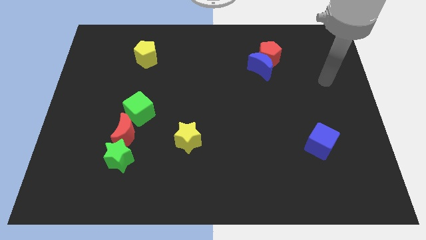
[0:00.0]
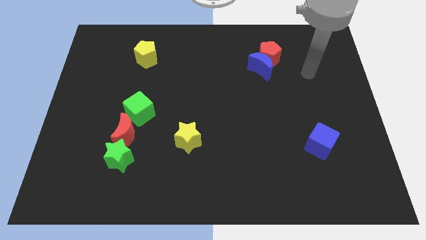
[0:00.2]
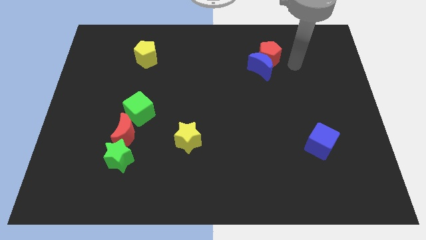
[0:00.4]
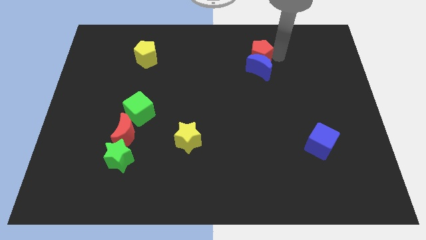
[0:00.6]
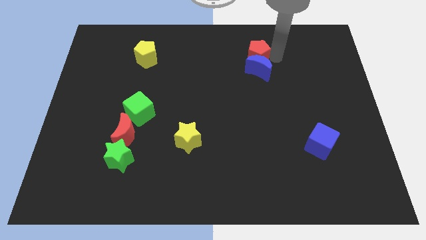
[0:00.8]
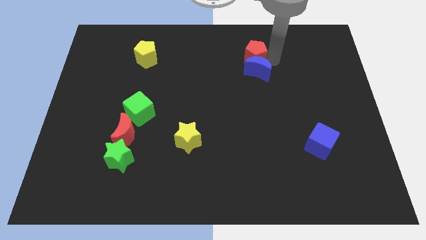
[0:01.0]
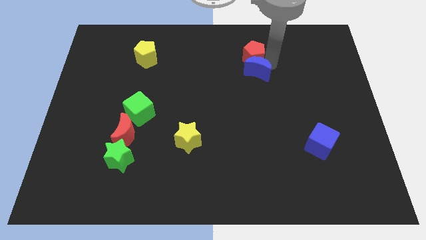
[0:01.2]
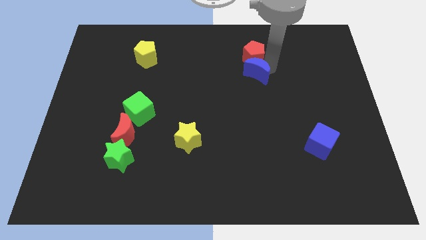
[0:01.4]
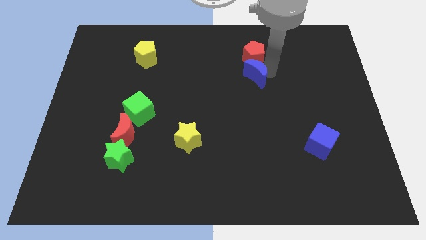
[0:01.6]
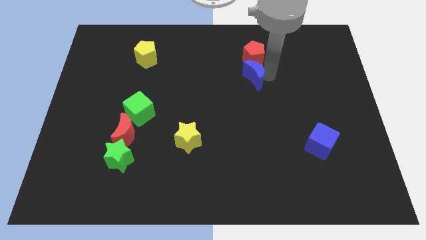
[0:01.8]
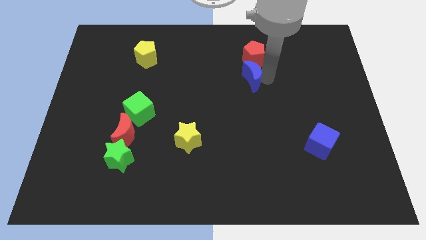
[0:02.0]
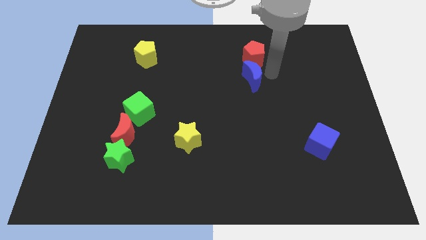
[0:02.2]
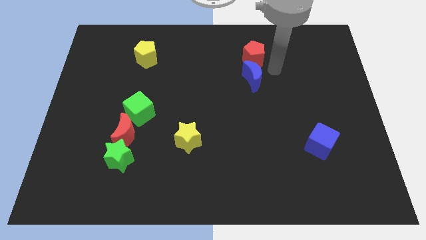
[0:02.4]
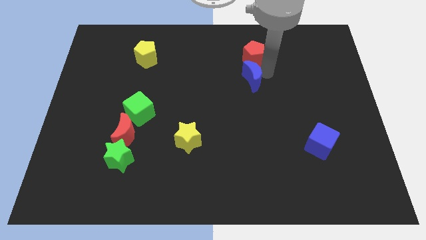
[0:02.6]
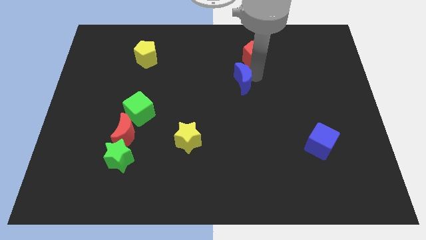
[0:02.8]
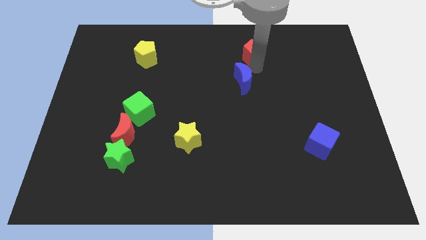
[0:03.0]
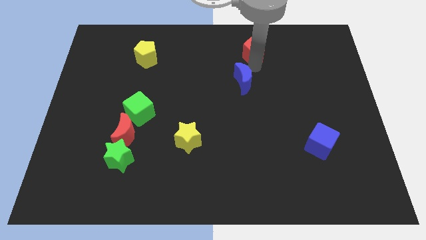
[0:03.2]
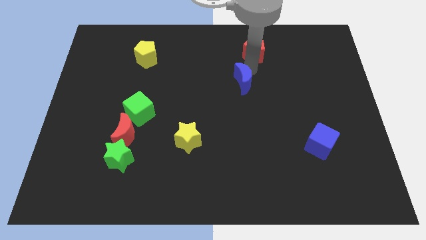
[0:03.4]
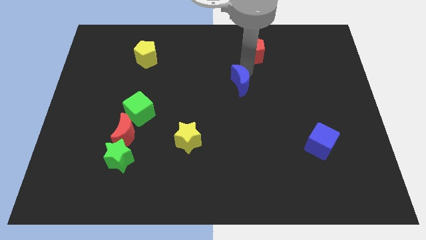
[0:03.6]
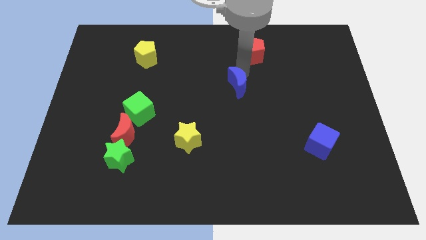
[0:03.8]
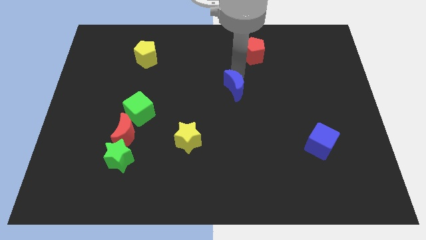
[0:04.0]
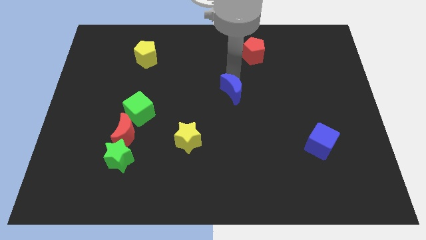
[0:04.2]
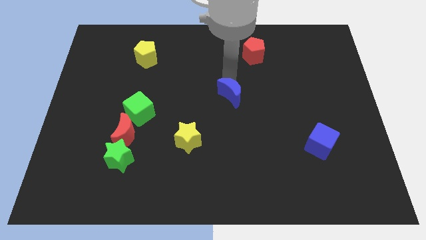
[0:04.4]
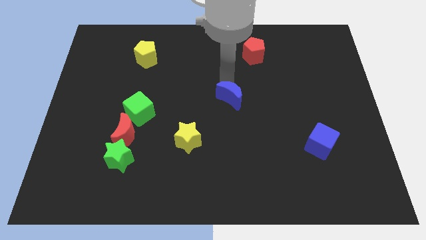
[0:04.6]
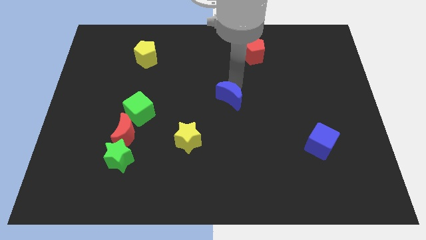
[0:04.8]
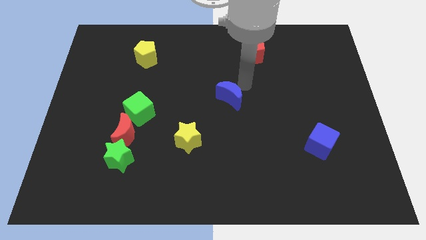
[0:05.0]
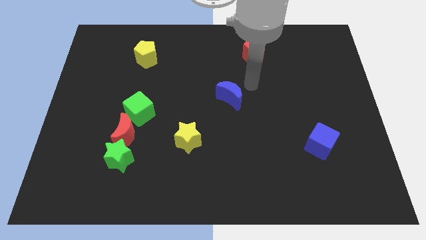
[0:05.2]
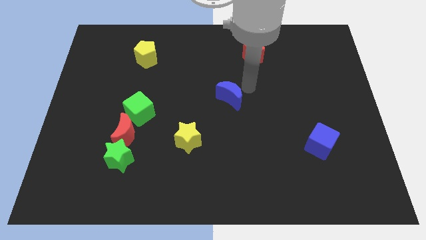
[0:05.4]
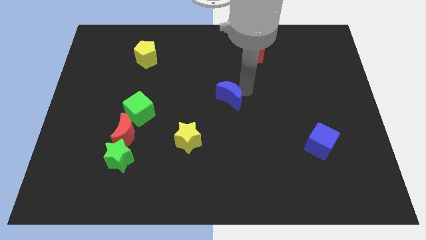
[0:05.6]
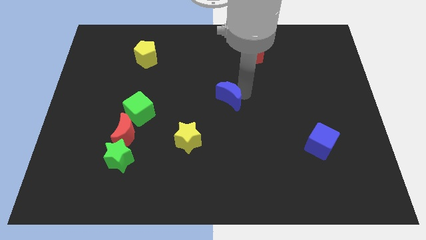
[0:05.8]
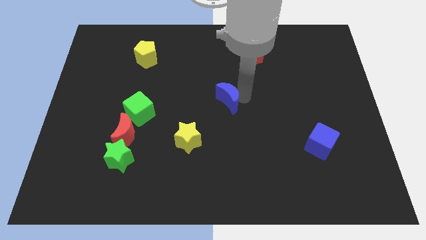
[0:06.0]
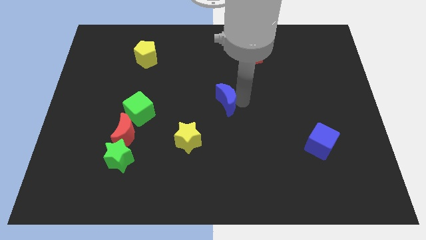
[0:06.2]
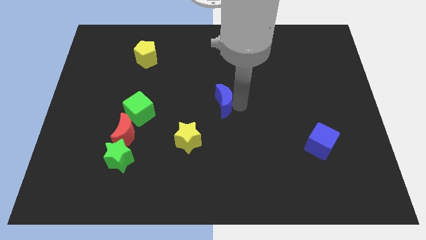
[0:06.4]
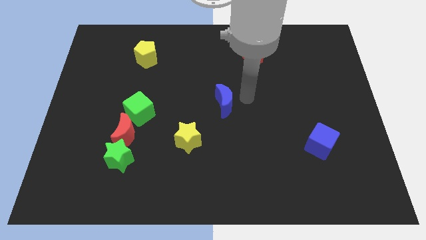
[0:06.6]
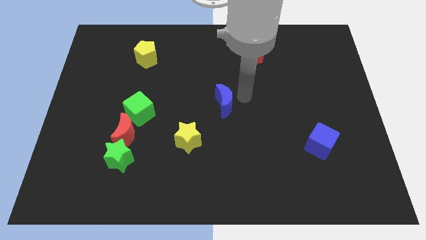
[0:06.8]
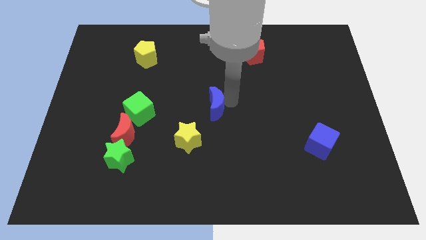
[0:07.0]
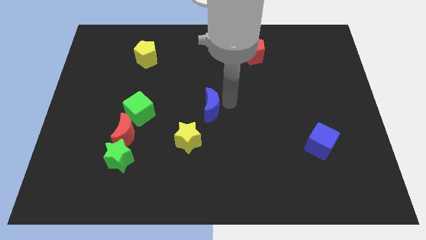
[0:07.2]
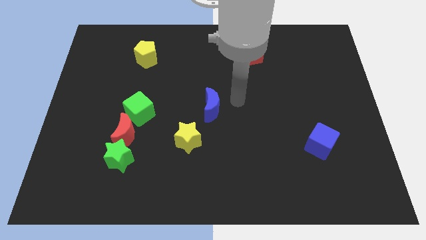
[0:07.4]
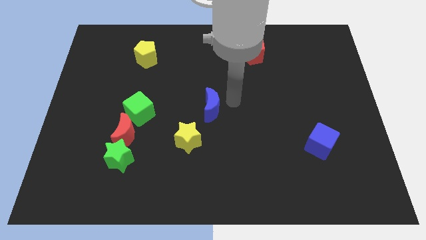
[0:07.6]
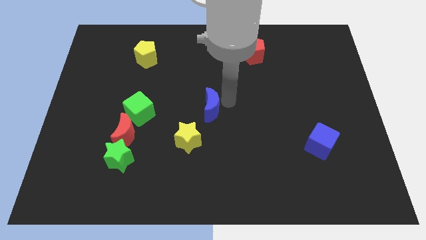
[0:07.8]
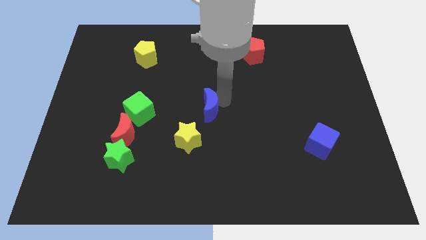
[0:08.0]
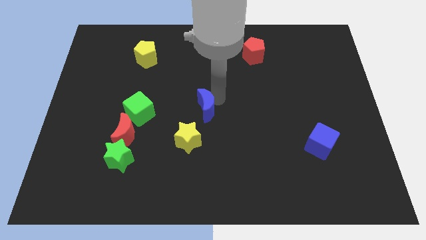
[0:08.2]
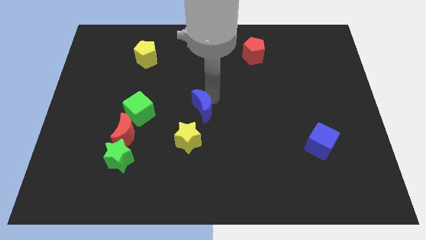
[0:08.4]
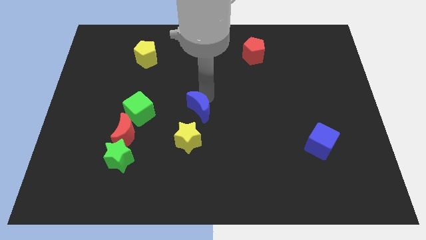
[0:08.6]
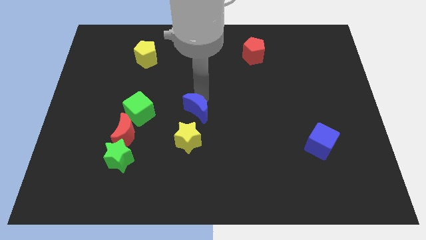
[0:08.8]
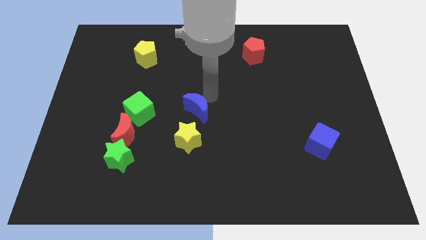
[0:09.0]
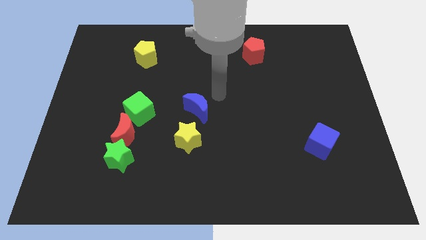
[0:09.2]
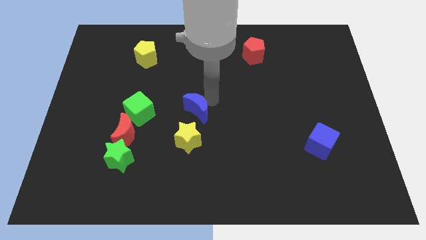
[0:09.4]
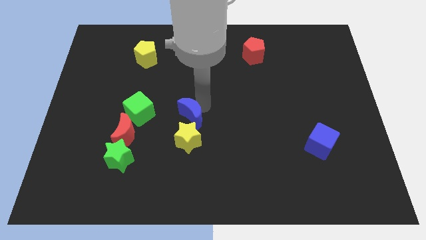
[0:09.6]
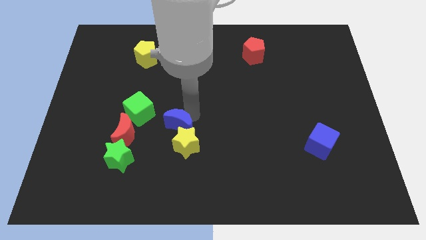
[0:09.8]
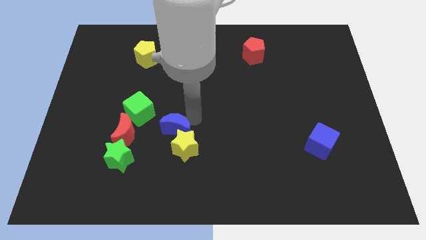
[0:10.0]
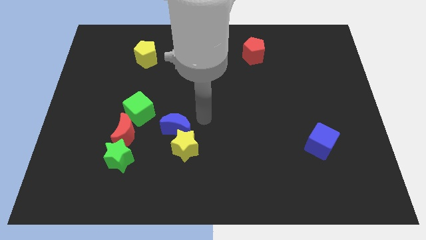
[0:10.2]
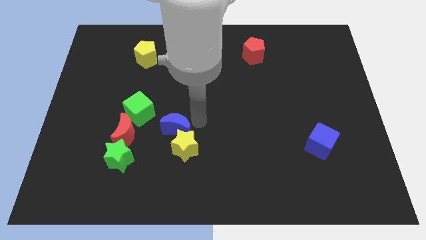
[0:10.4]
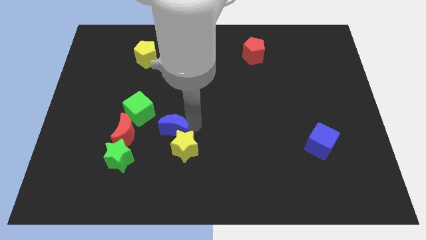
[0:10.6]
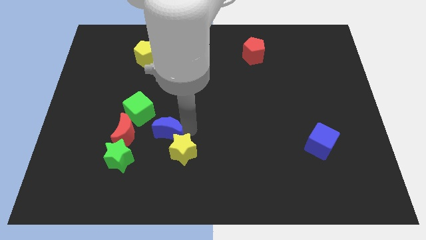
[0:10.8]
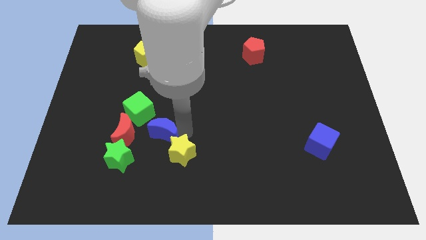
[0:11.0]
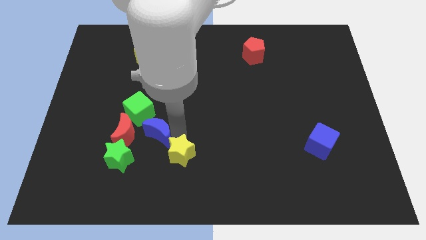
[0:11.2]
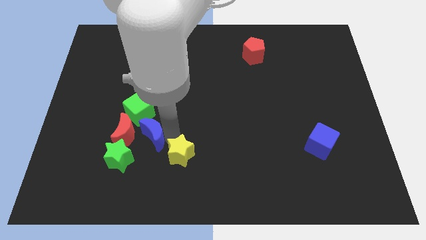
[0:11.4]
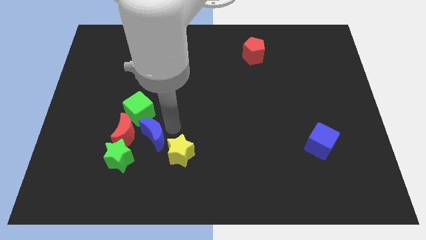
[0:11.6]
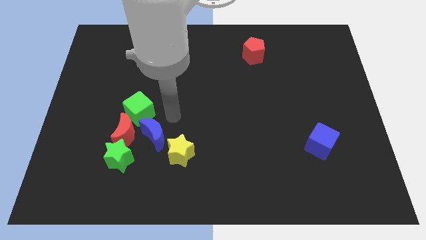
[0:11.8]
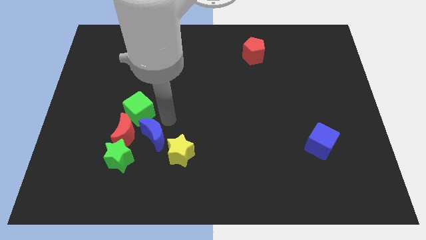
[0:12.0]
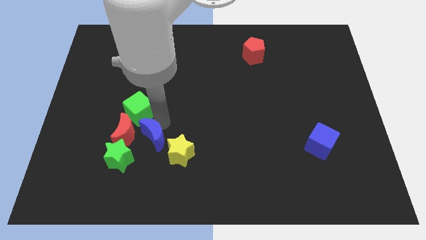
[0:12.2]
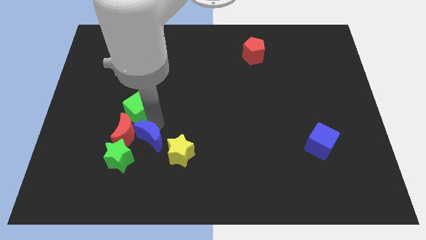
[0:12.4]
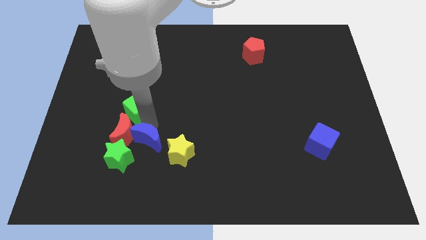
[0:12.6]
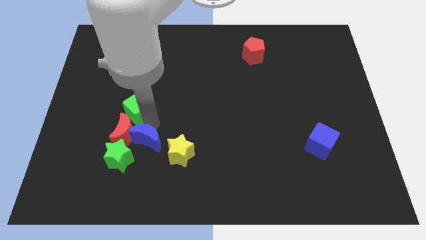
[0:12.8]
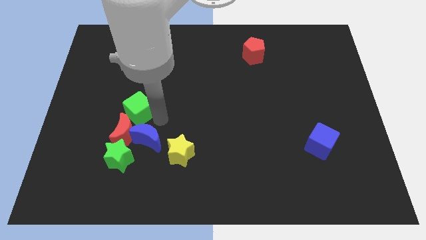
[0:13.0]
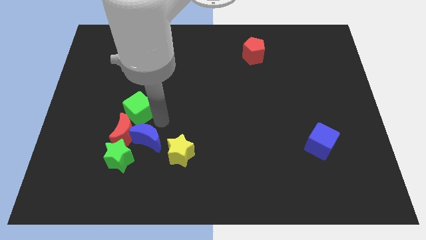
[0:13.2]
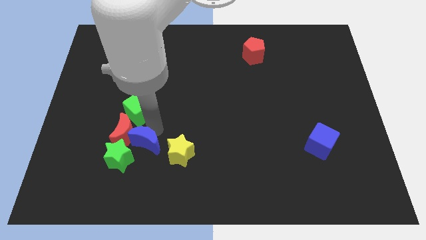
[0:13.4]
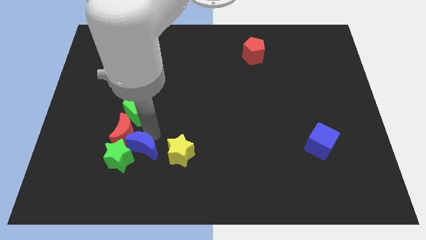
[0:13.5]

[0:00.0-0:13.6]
slide the blue moon to the green star
